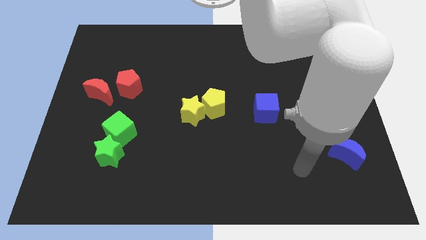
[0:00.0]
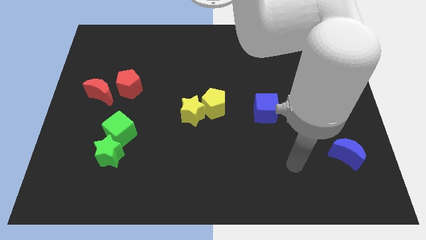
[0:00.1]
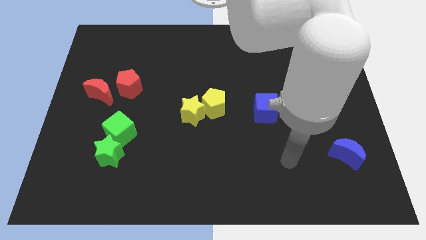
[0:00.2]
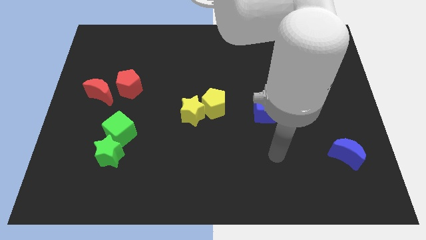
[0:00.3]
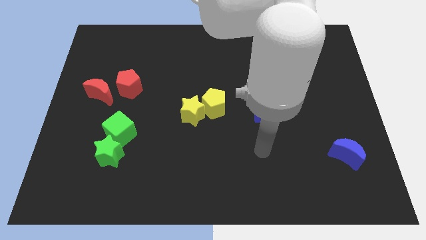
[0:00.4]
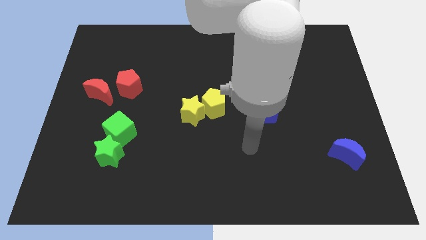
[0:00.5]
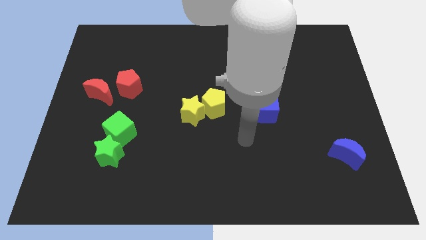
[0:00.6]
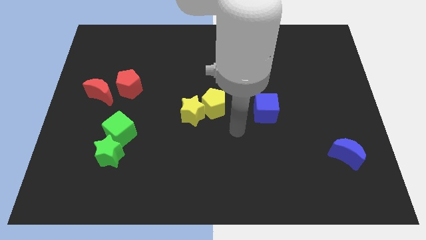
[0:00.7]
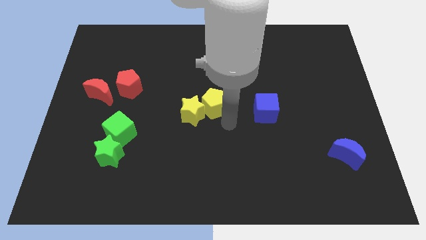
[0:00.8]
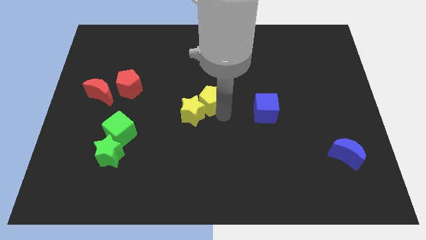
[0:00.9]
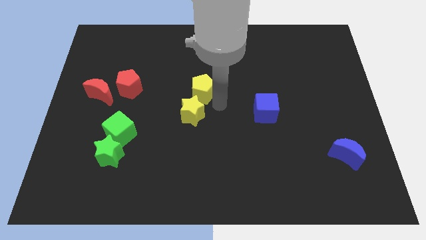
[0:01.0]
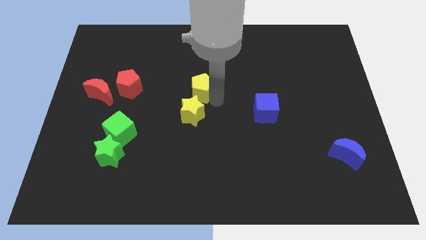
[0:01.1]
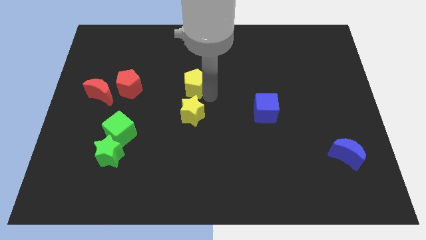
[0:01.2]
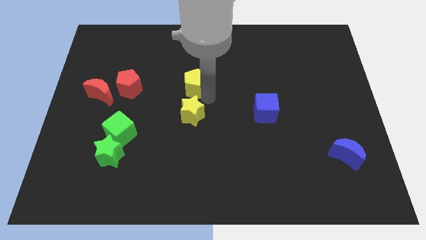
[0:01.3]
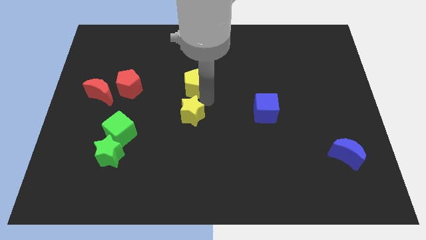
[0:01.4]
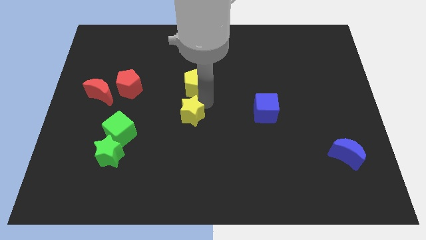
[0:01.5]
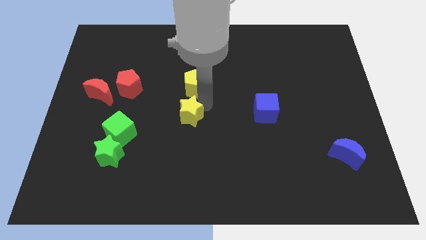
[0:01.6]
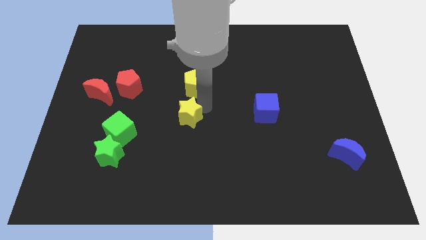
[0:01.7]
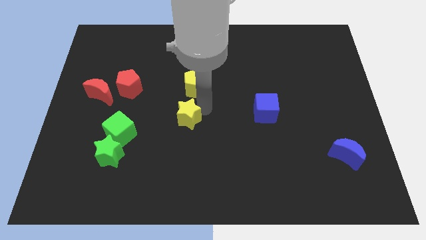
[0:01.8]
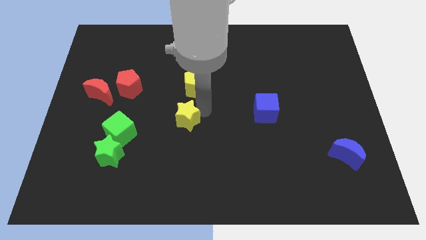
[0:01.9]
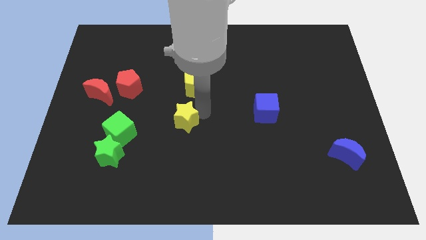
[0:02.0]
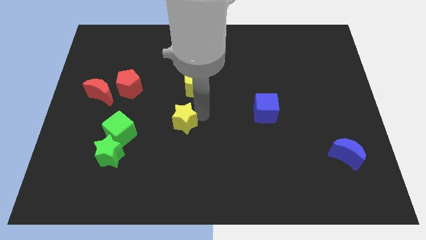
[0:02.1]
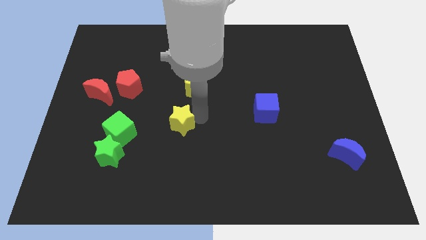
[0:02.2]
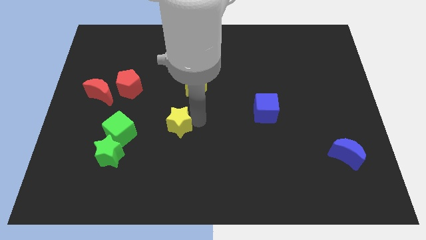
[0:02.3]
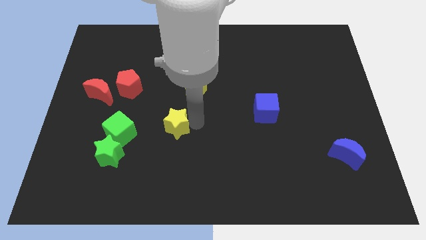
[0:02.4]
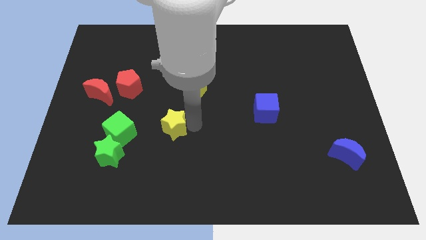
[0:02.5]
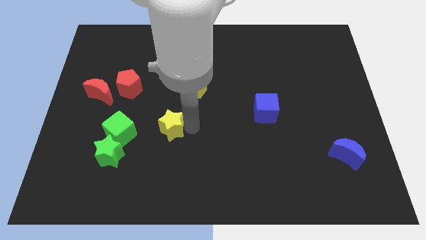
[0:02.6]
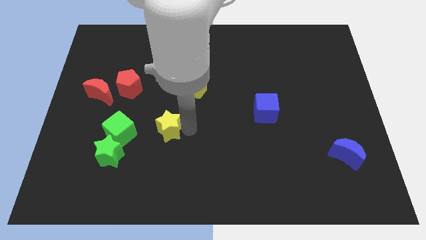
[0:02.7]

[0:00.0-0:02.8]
slightly push the yellow star downwards and then to the left

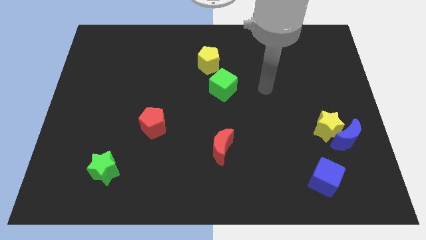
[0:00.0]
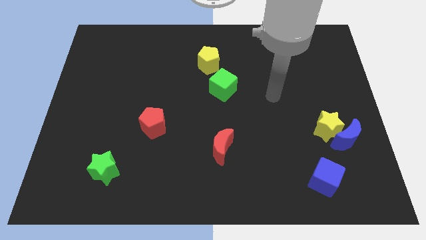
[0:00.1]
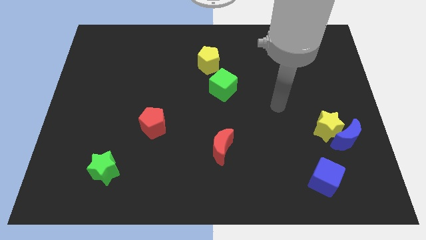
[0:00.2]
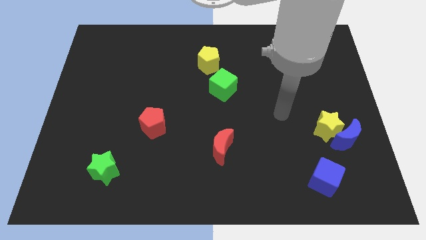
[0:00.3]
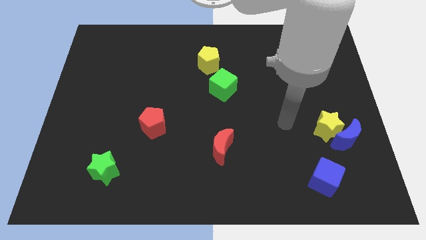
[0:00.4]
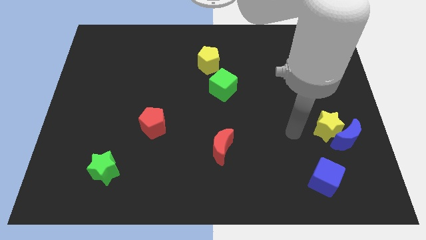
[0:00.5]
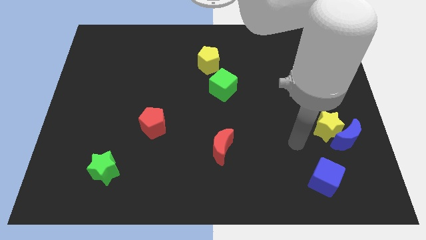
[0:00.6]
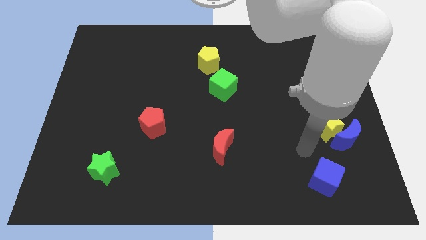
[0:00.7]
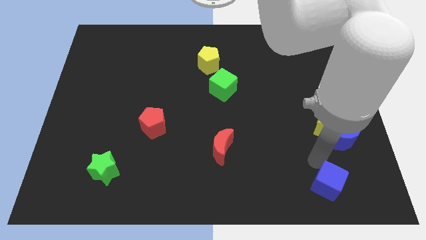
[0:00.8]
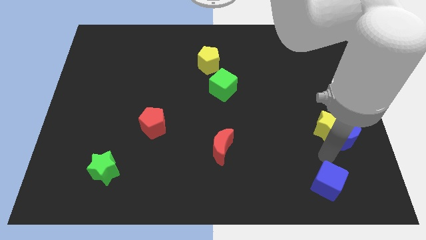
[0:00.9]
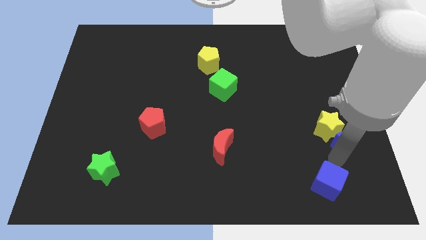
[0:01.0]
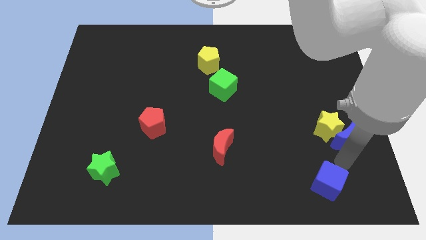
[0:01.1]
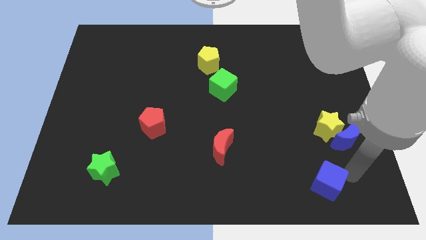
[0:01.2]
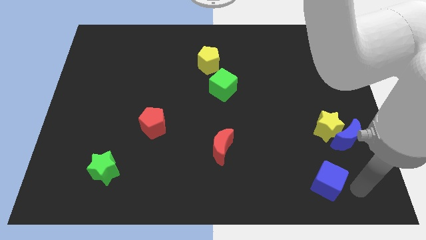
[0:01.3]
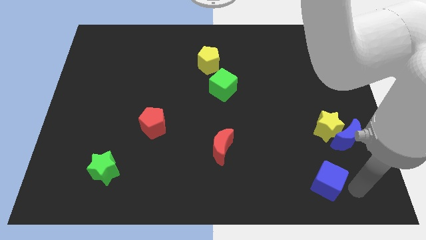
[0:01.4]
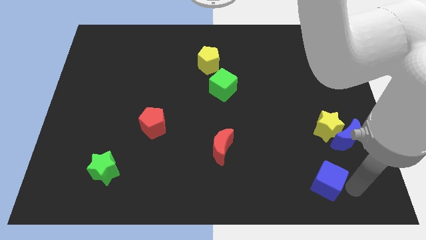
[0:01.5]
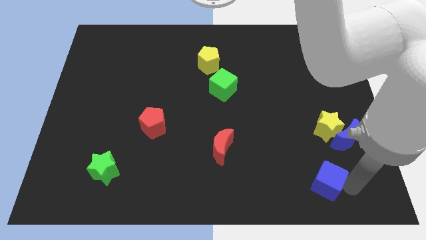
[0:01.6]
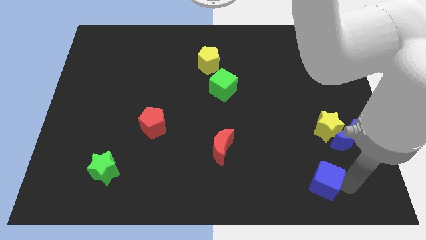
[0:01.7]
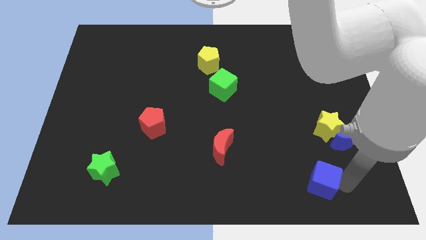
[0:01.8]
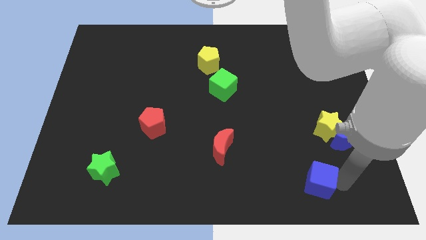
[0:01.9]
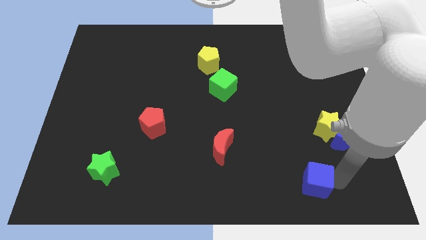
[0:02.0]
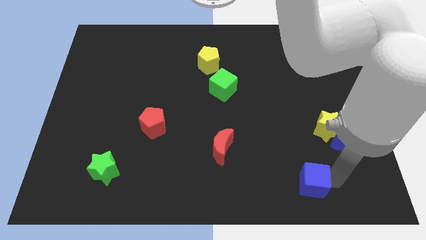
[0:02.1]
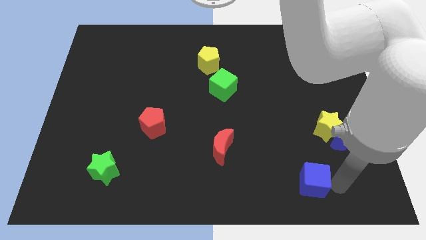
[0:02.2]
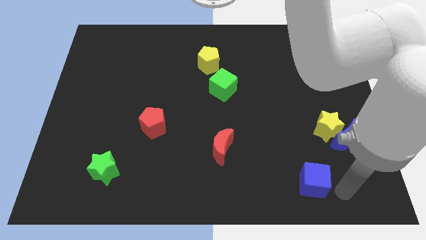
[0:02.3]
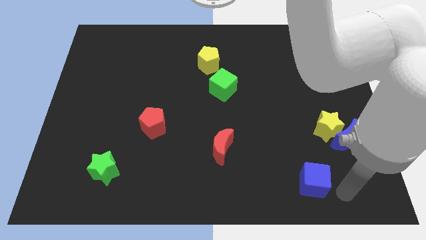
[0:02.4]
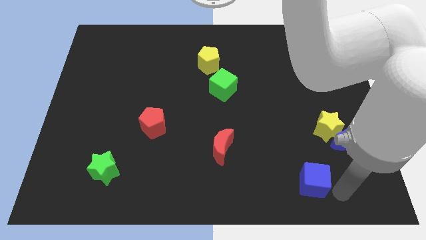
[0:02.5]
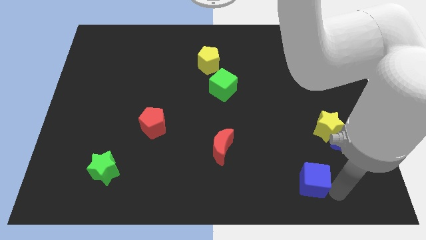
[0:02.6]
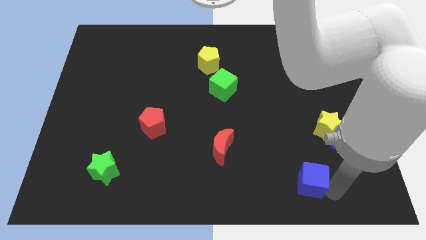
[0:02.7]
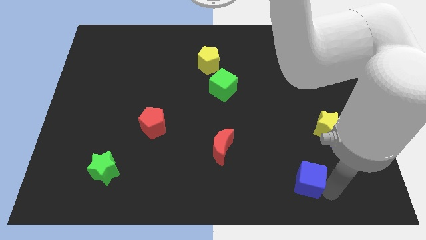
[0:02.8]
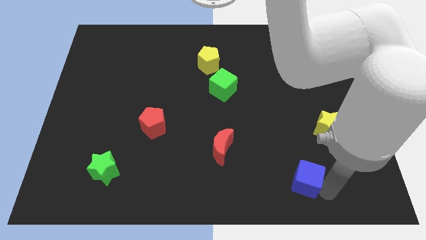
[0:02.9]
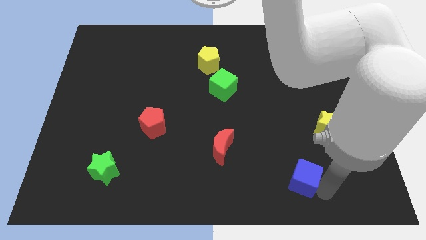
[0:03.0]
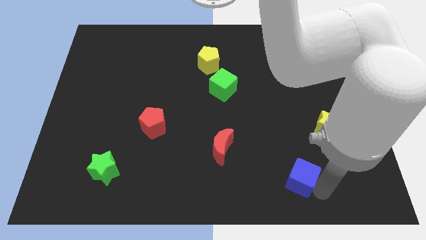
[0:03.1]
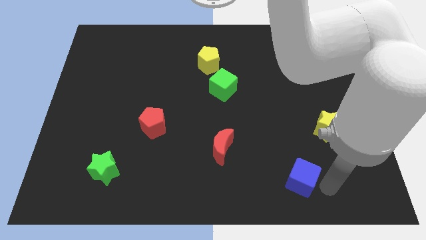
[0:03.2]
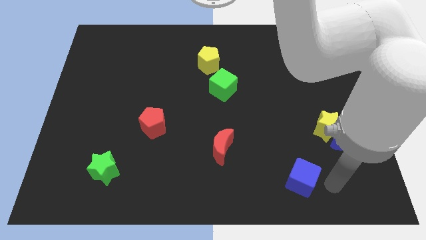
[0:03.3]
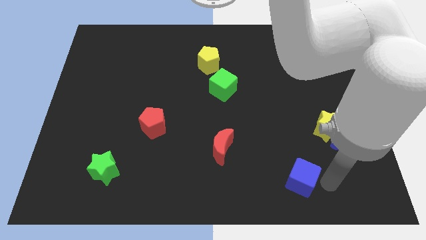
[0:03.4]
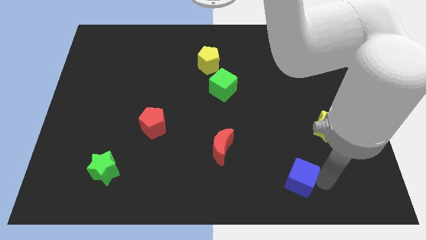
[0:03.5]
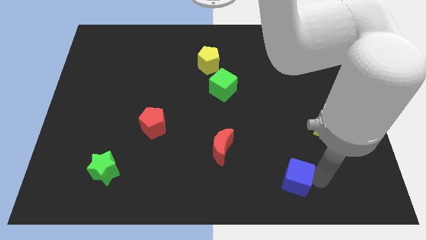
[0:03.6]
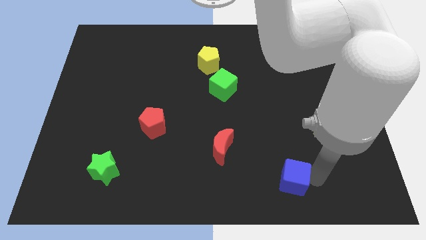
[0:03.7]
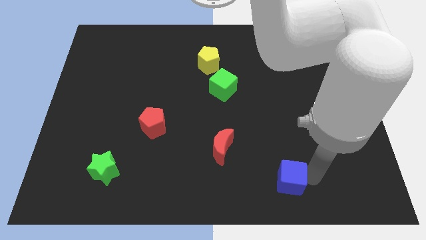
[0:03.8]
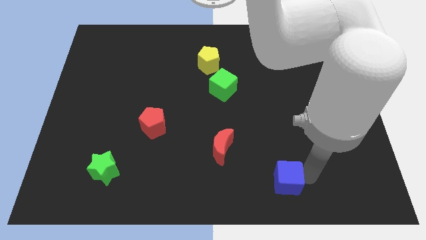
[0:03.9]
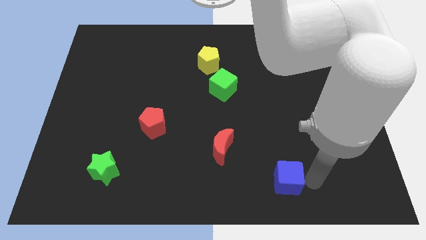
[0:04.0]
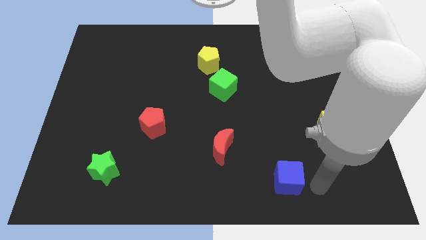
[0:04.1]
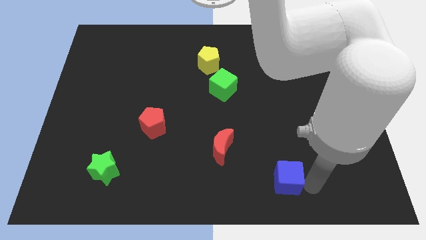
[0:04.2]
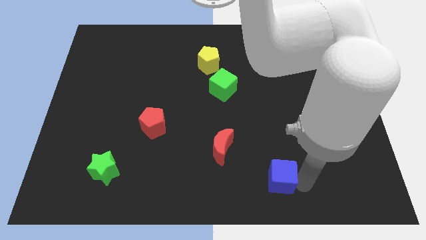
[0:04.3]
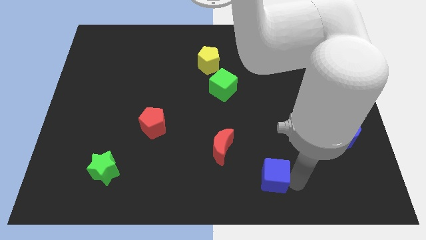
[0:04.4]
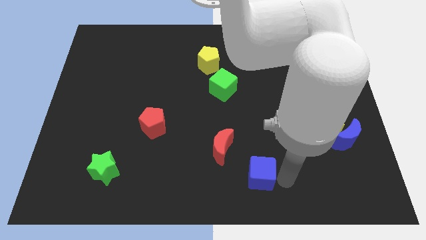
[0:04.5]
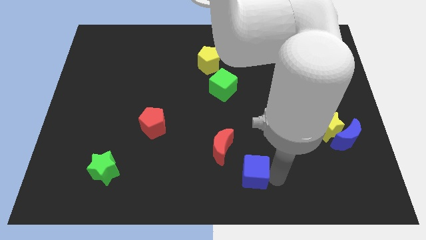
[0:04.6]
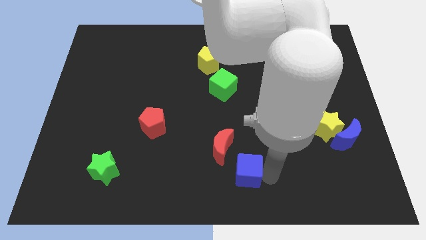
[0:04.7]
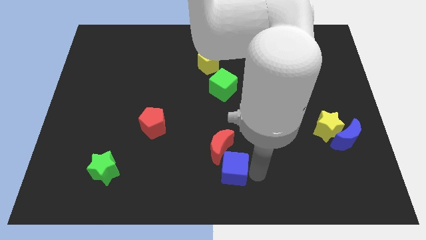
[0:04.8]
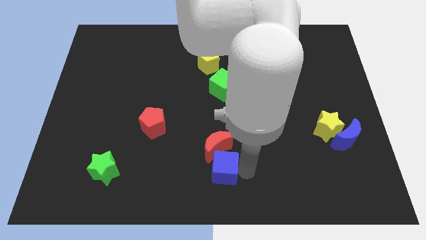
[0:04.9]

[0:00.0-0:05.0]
slide the blue cube left
